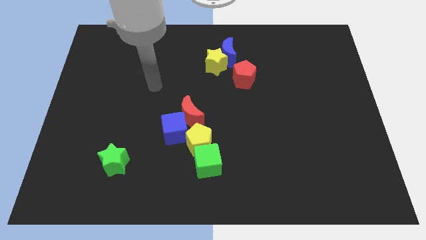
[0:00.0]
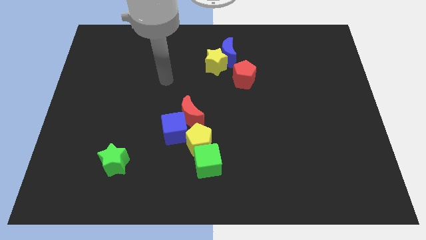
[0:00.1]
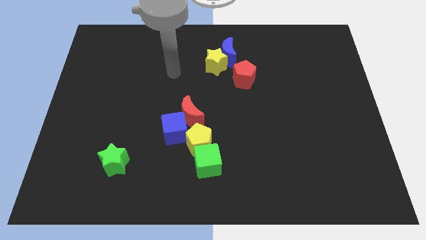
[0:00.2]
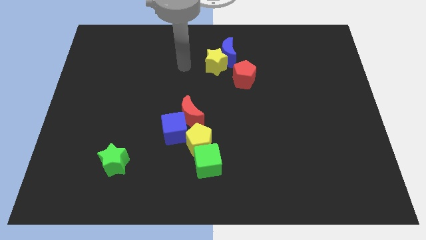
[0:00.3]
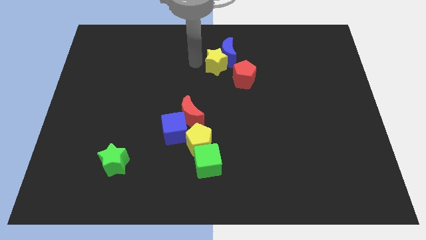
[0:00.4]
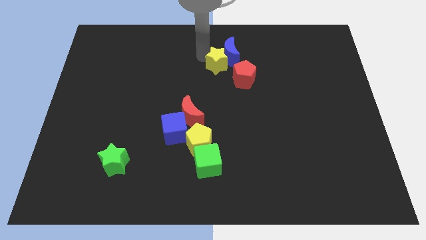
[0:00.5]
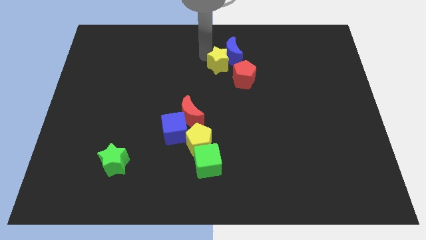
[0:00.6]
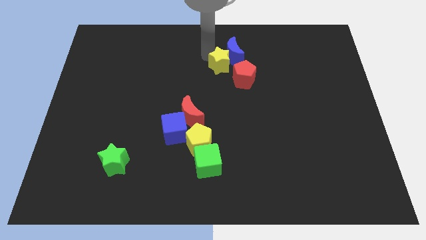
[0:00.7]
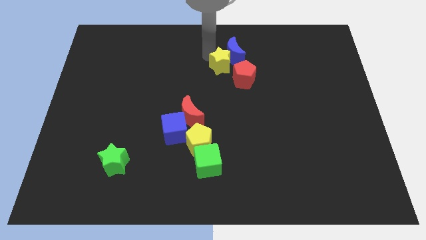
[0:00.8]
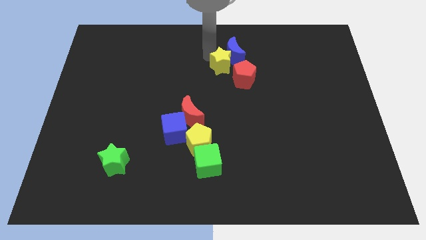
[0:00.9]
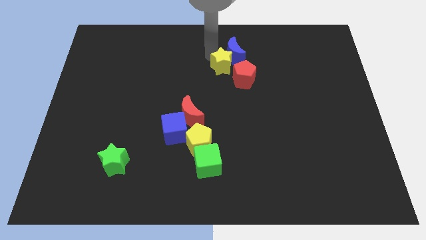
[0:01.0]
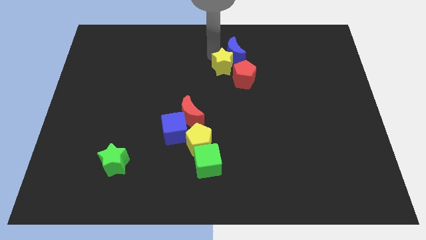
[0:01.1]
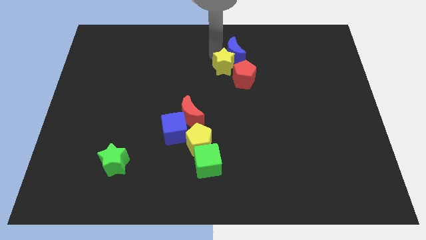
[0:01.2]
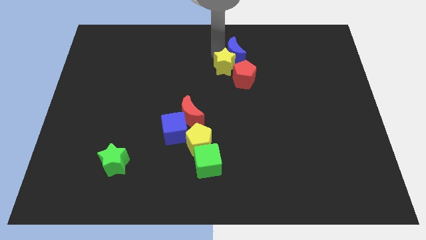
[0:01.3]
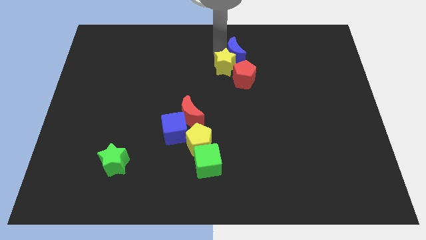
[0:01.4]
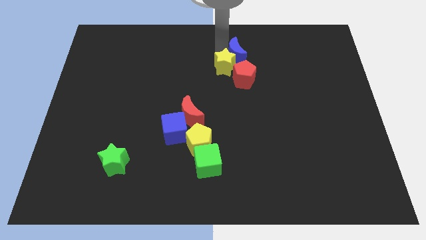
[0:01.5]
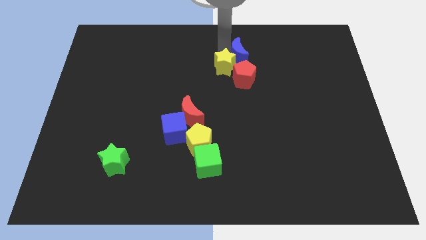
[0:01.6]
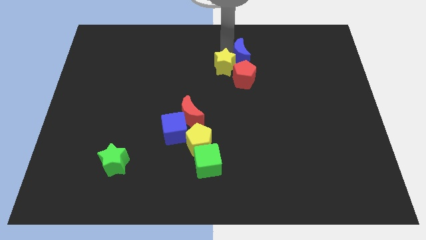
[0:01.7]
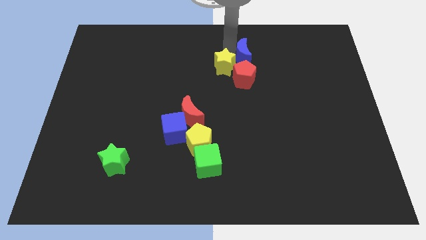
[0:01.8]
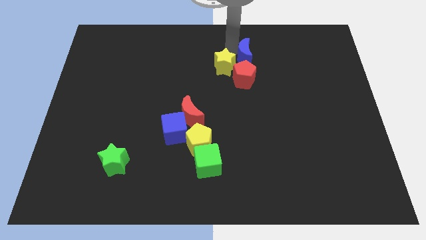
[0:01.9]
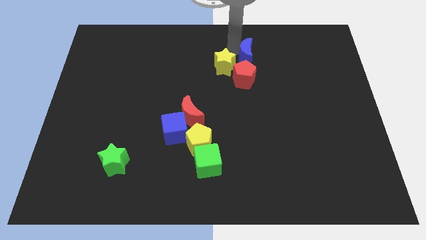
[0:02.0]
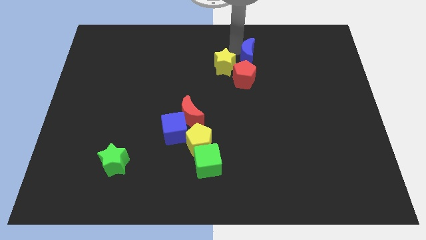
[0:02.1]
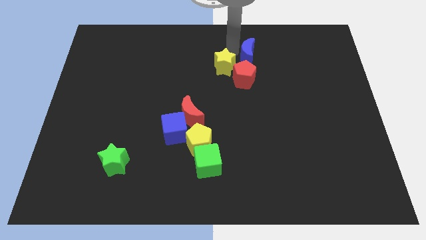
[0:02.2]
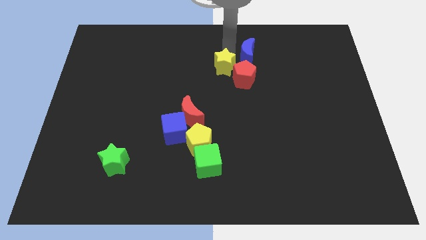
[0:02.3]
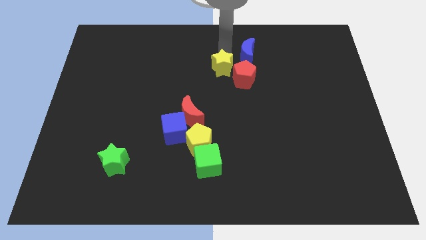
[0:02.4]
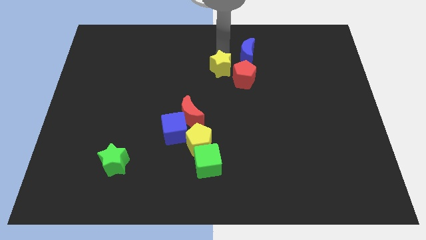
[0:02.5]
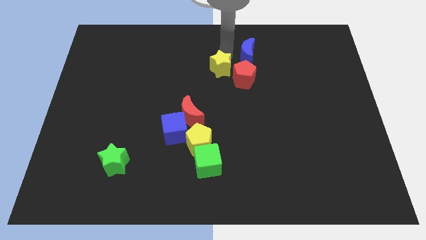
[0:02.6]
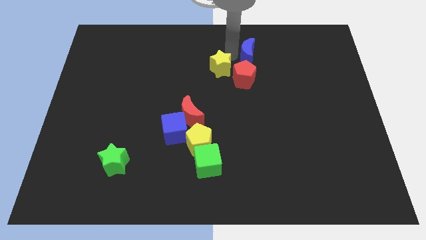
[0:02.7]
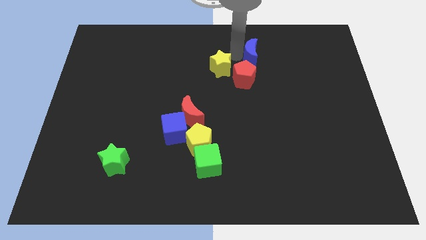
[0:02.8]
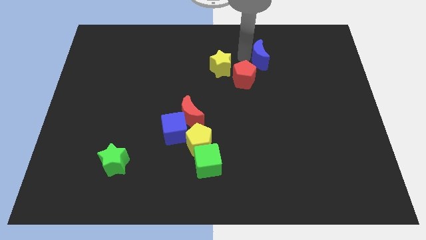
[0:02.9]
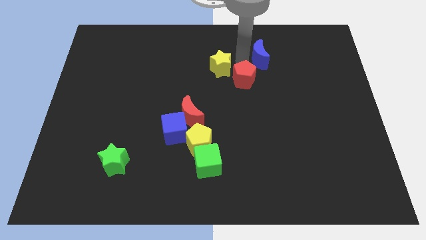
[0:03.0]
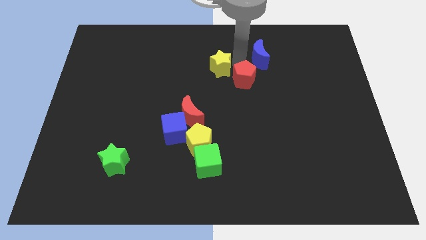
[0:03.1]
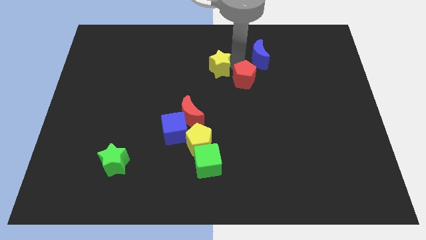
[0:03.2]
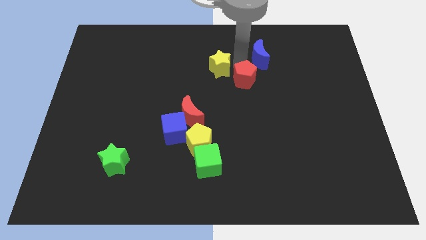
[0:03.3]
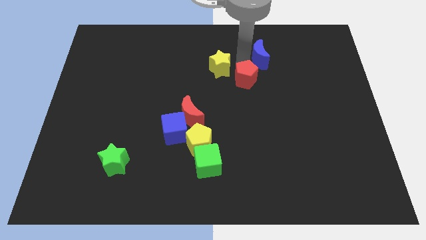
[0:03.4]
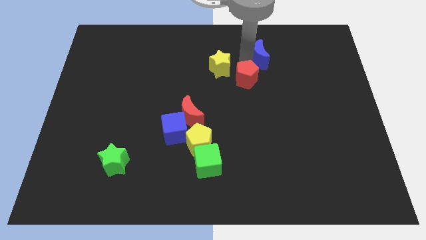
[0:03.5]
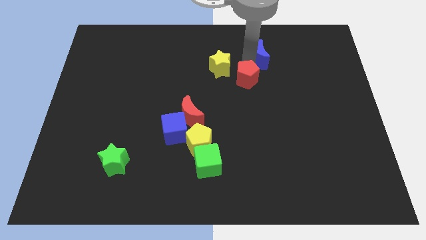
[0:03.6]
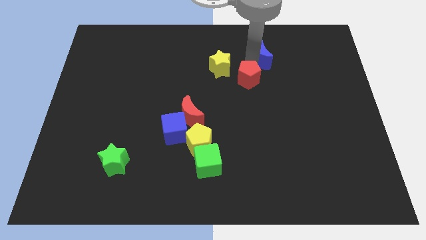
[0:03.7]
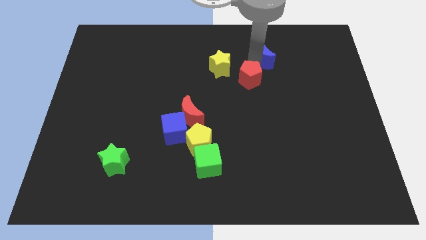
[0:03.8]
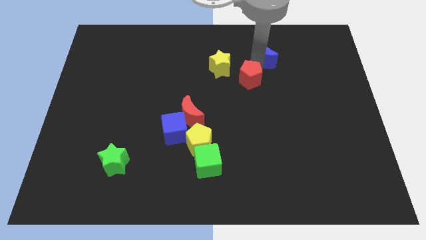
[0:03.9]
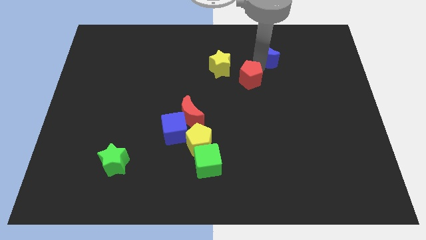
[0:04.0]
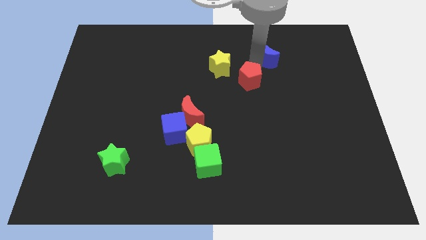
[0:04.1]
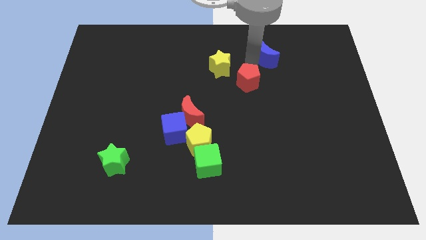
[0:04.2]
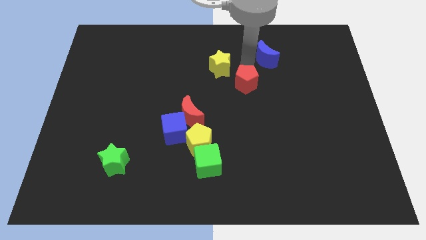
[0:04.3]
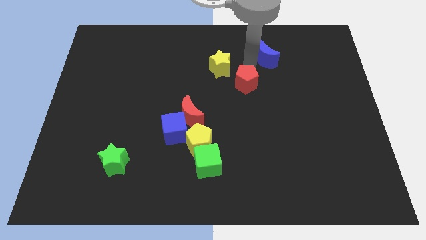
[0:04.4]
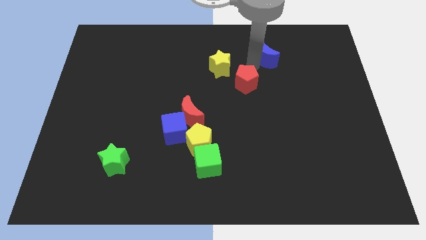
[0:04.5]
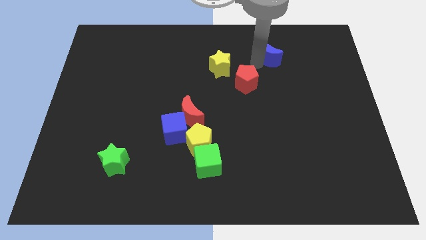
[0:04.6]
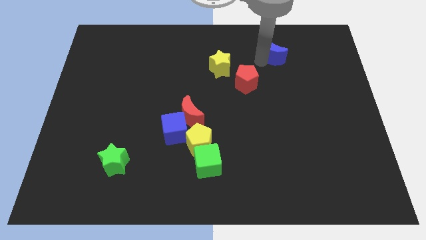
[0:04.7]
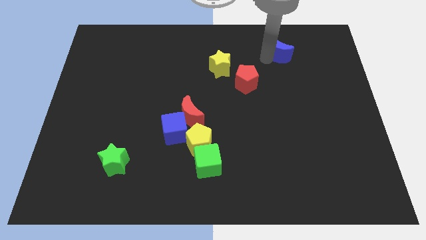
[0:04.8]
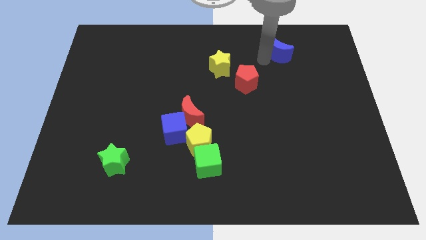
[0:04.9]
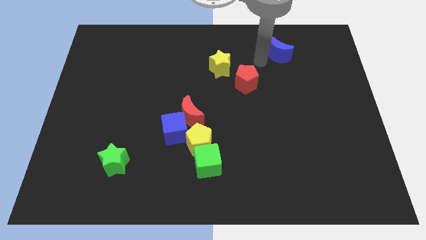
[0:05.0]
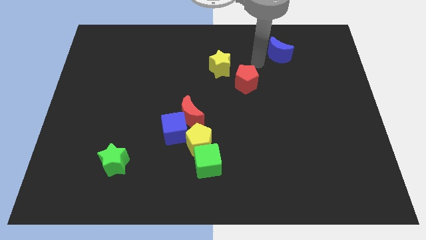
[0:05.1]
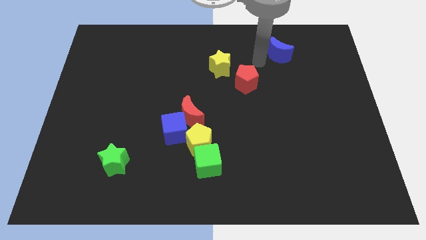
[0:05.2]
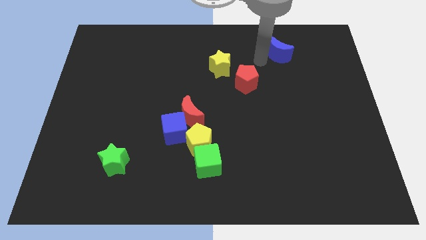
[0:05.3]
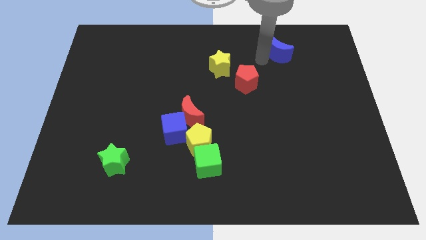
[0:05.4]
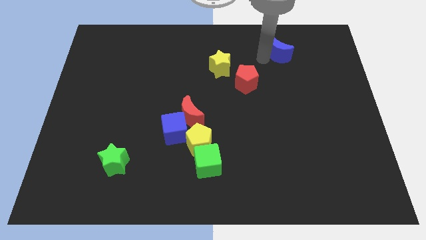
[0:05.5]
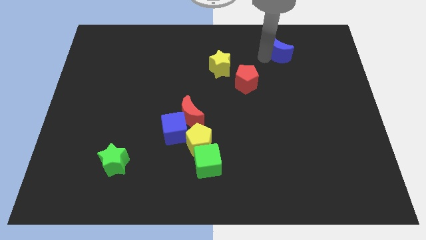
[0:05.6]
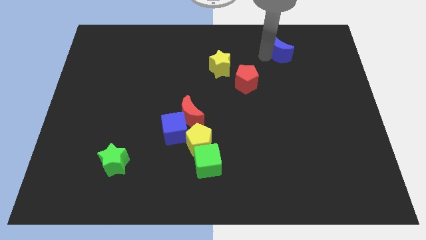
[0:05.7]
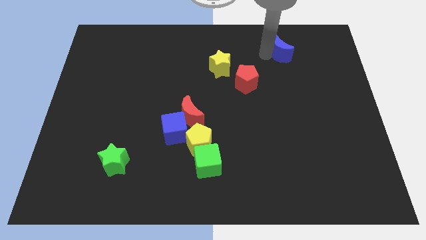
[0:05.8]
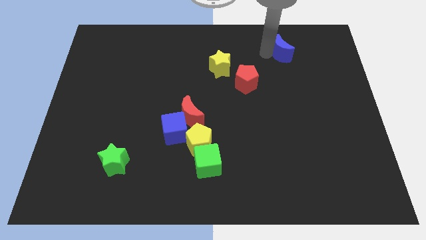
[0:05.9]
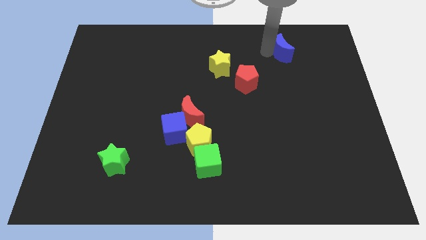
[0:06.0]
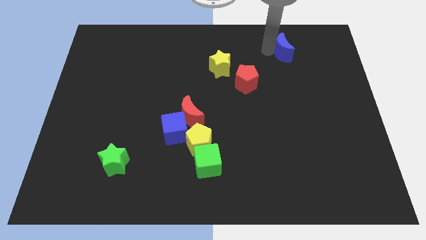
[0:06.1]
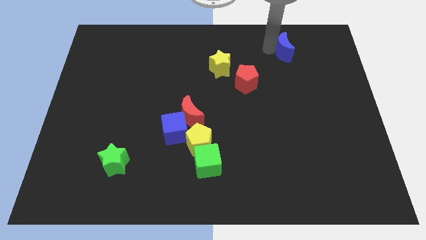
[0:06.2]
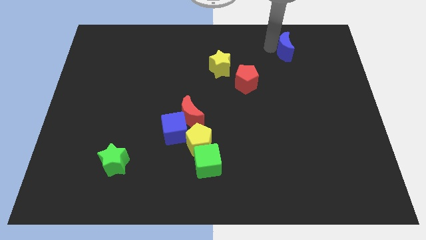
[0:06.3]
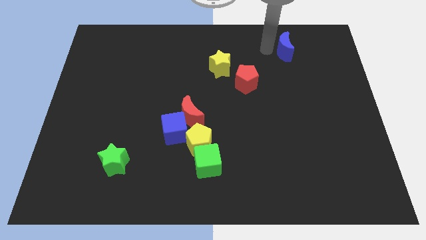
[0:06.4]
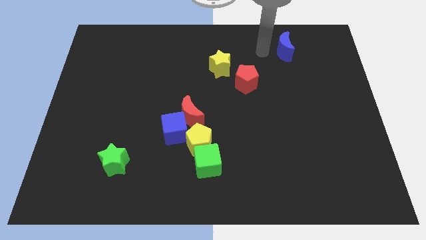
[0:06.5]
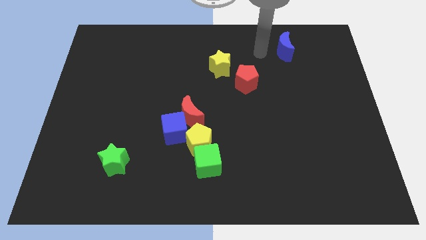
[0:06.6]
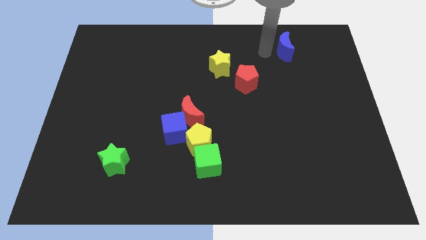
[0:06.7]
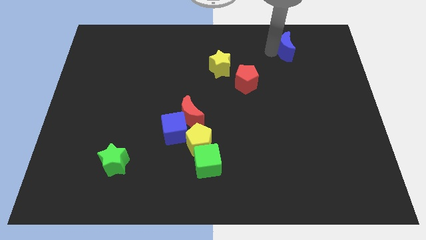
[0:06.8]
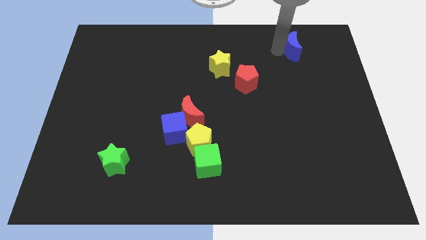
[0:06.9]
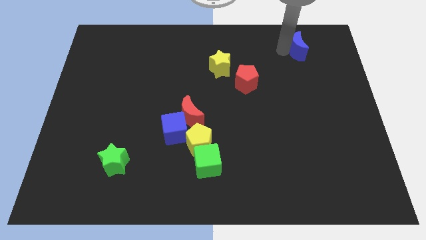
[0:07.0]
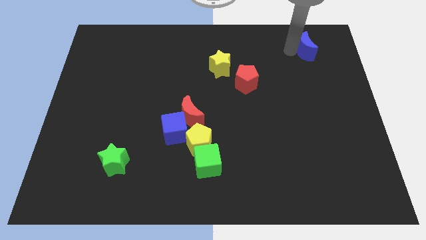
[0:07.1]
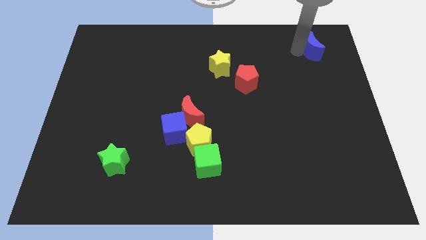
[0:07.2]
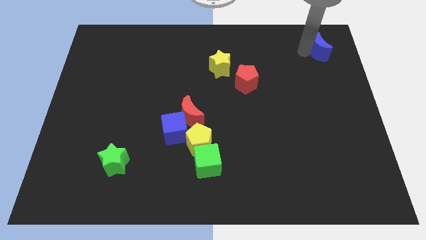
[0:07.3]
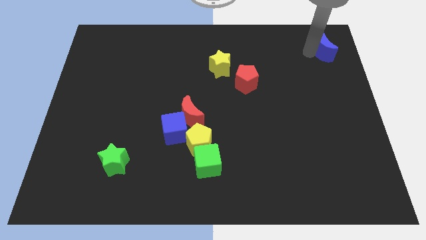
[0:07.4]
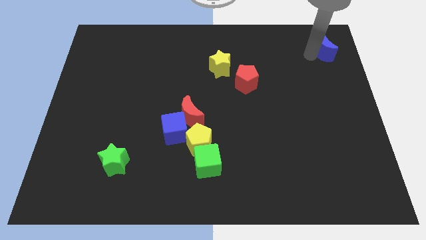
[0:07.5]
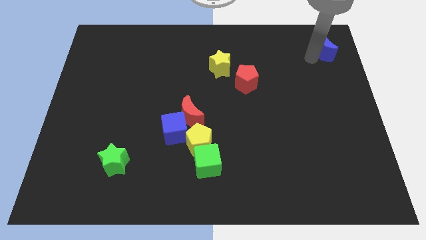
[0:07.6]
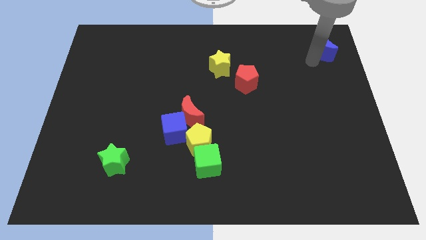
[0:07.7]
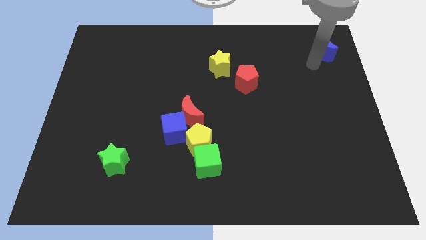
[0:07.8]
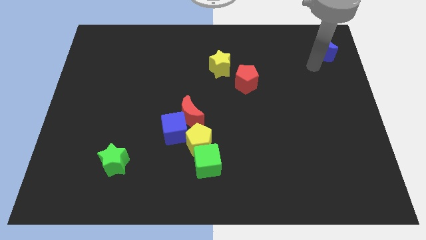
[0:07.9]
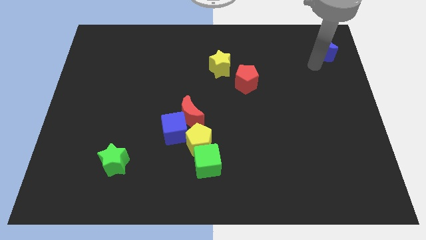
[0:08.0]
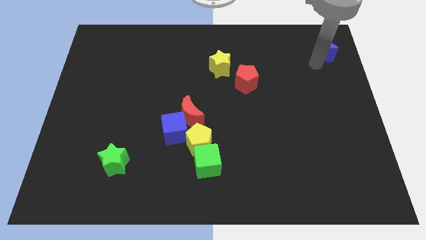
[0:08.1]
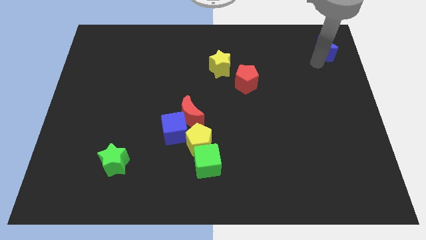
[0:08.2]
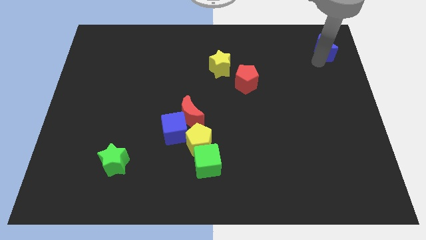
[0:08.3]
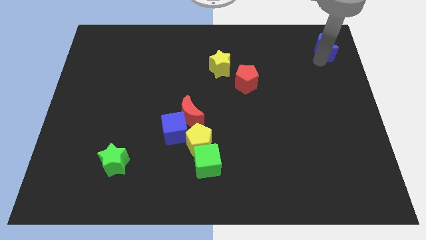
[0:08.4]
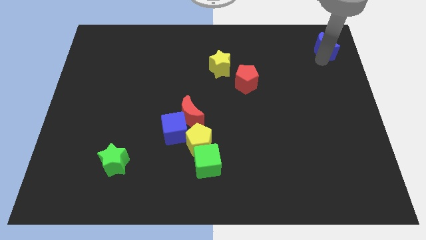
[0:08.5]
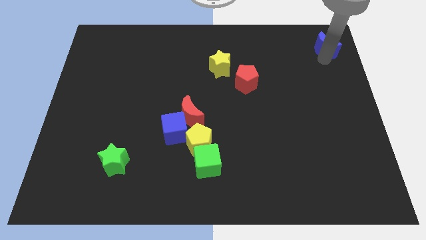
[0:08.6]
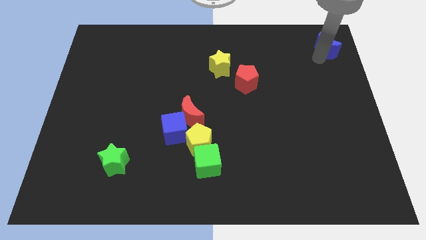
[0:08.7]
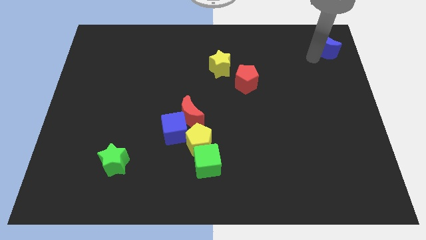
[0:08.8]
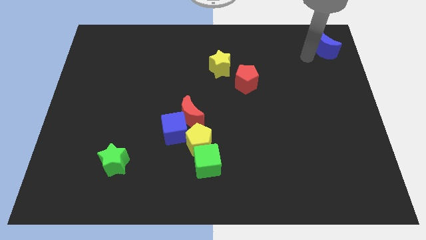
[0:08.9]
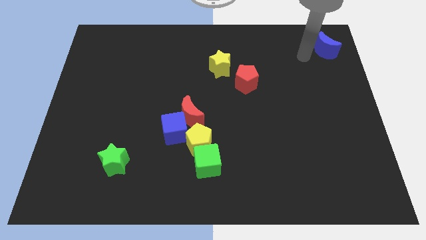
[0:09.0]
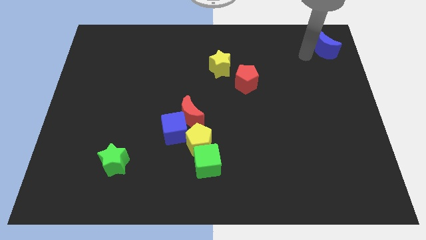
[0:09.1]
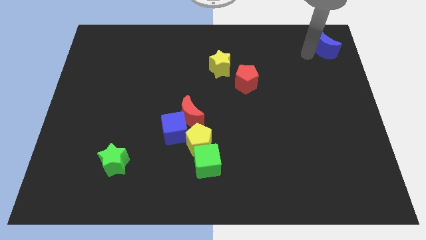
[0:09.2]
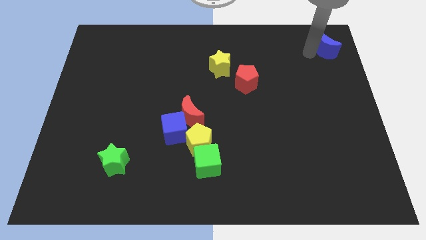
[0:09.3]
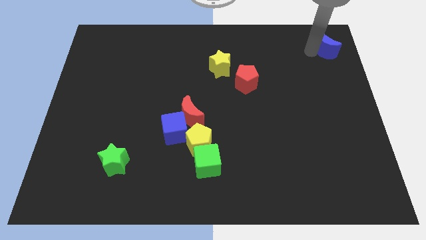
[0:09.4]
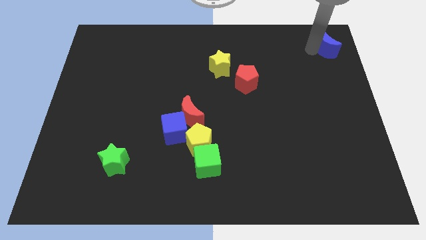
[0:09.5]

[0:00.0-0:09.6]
push the blue moon to the top right
